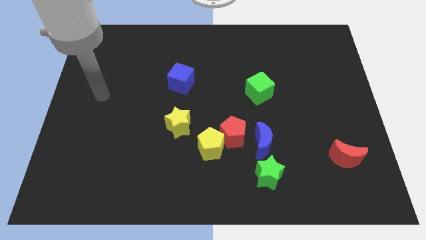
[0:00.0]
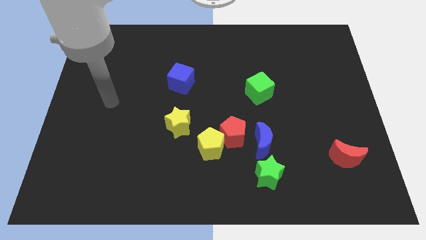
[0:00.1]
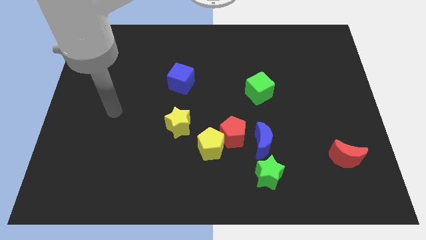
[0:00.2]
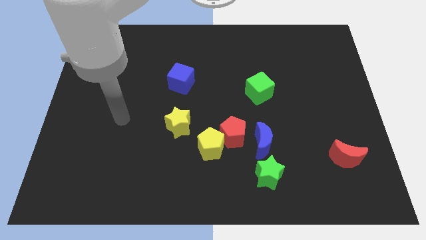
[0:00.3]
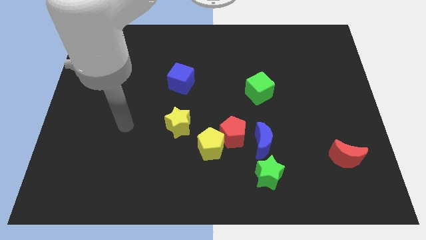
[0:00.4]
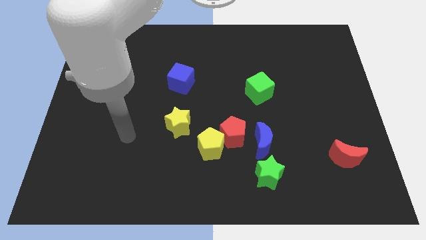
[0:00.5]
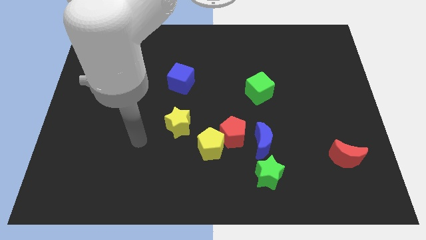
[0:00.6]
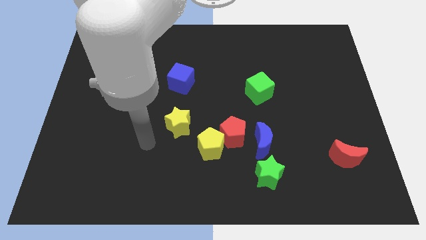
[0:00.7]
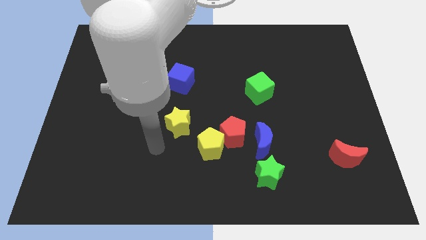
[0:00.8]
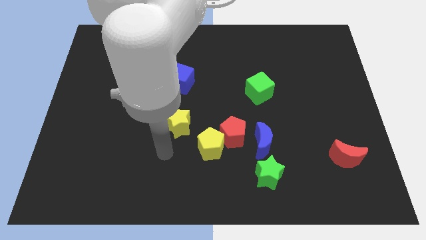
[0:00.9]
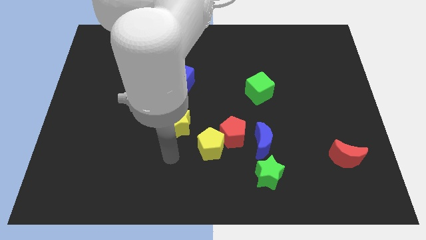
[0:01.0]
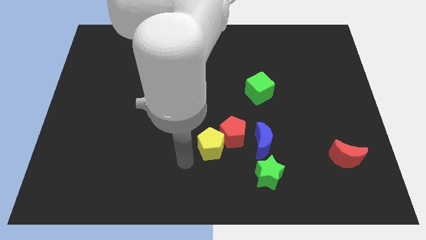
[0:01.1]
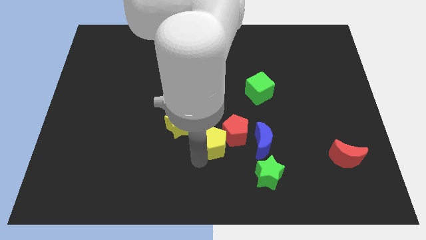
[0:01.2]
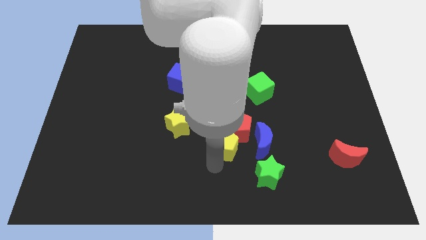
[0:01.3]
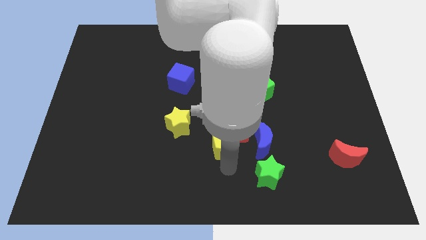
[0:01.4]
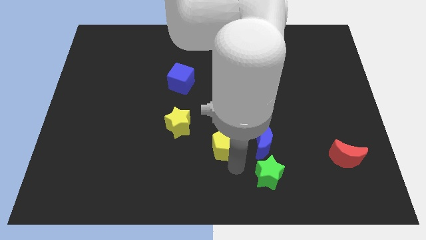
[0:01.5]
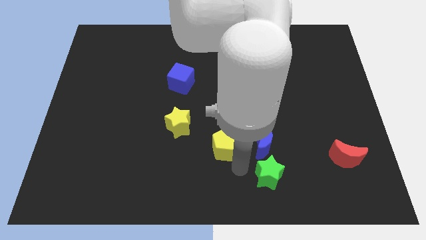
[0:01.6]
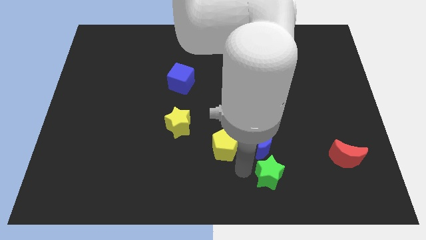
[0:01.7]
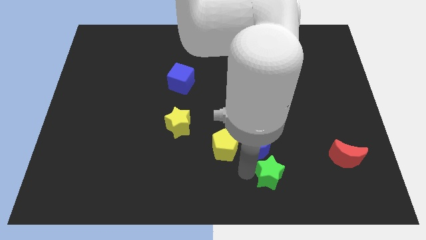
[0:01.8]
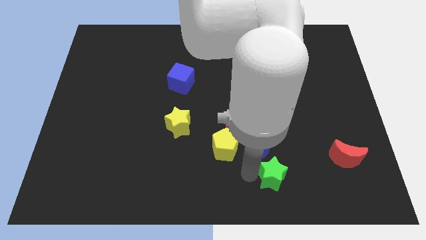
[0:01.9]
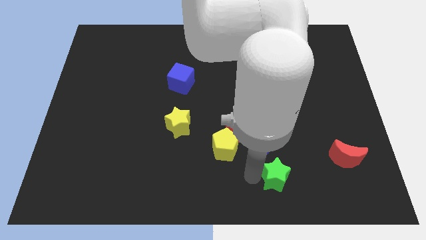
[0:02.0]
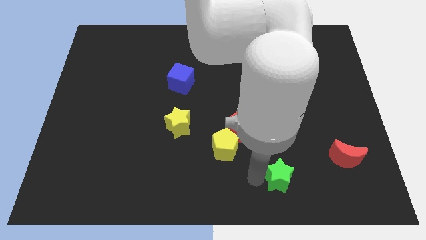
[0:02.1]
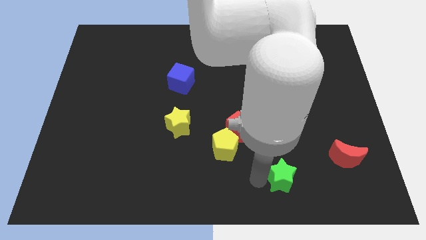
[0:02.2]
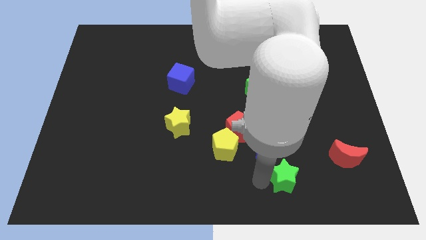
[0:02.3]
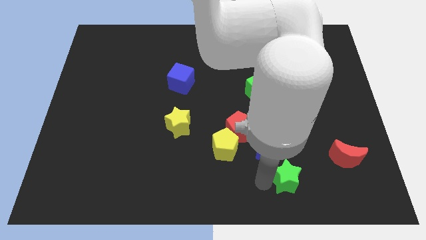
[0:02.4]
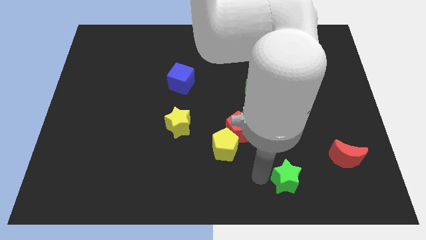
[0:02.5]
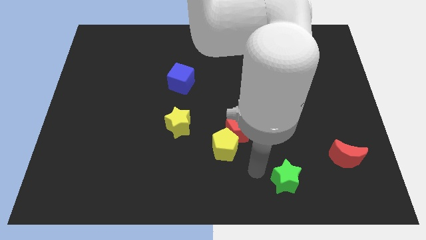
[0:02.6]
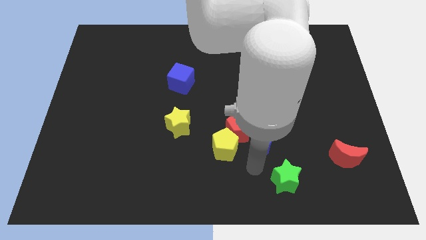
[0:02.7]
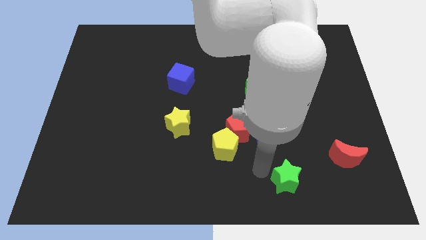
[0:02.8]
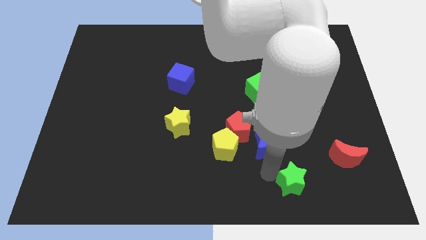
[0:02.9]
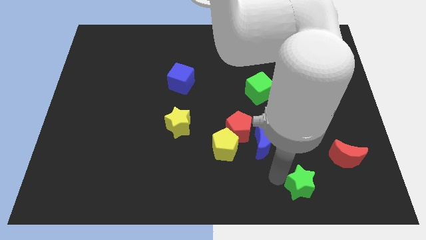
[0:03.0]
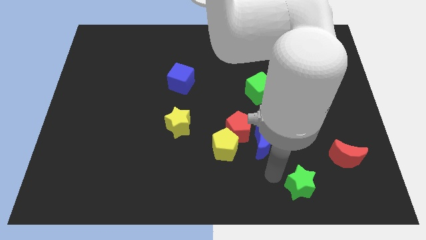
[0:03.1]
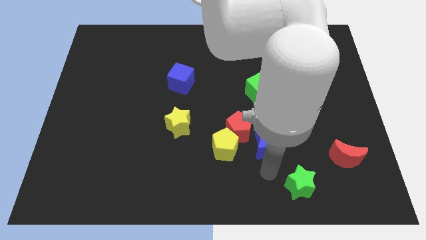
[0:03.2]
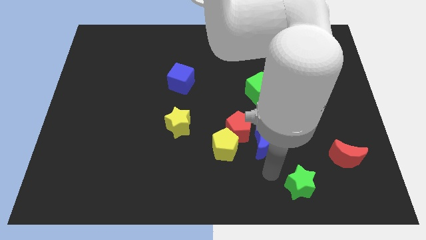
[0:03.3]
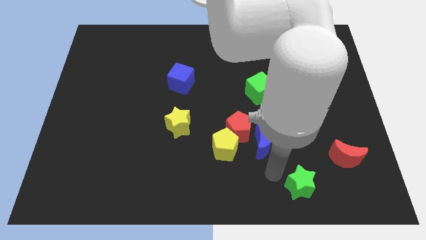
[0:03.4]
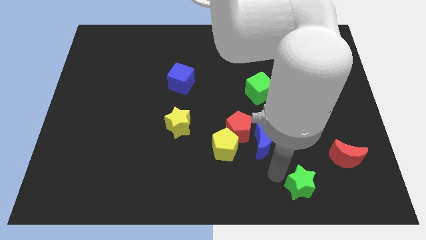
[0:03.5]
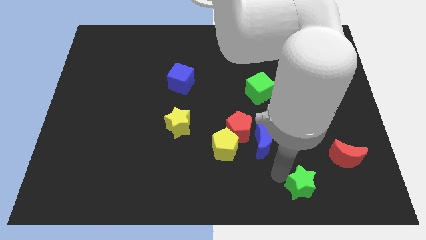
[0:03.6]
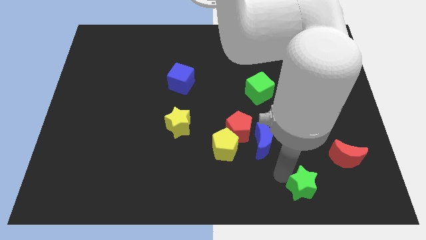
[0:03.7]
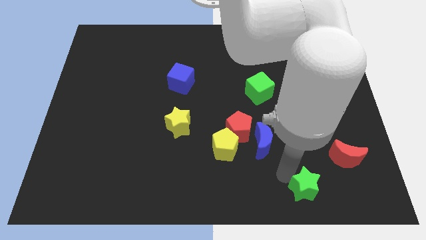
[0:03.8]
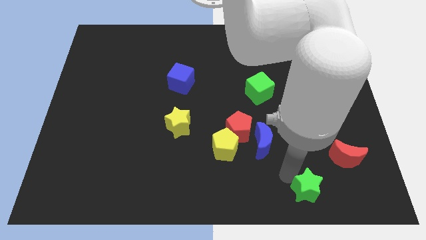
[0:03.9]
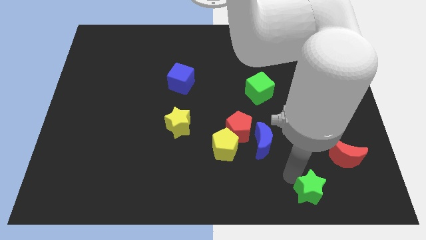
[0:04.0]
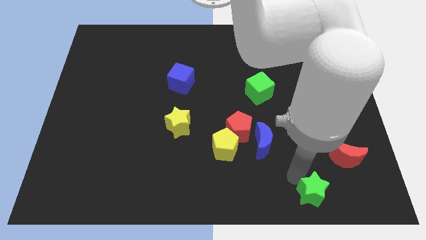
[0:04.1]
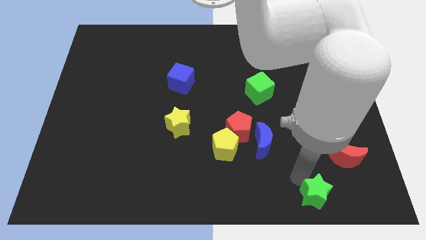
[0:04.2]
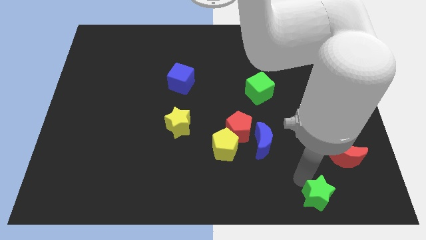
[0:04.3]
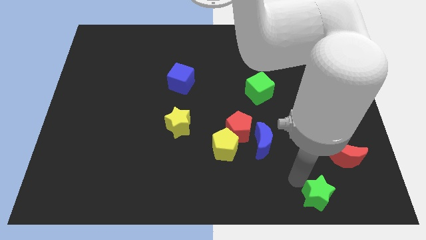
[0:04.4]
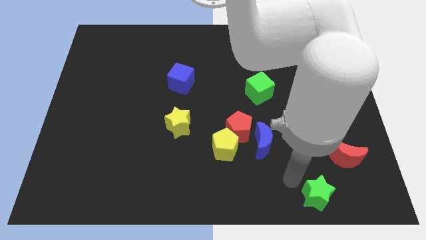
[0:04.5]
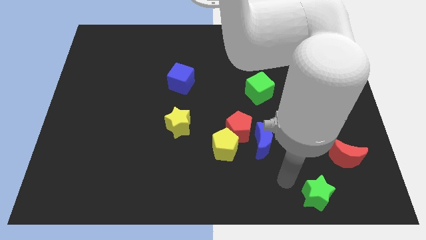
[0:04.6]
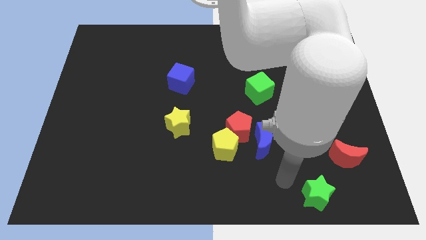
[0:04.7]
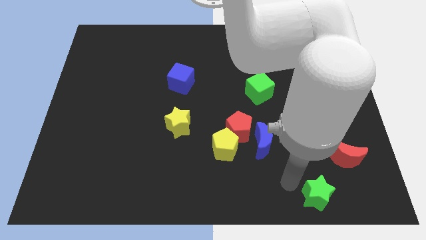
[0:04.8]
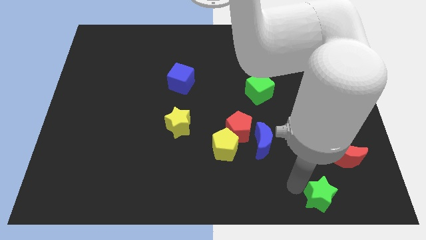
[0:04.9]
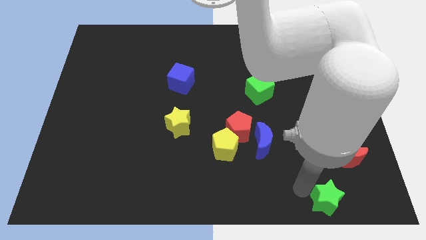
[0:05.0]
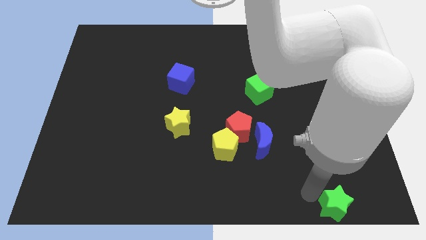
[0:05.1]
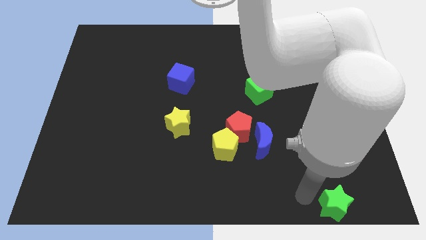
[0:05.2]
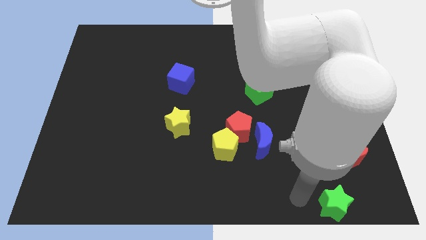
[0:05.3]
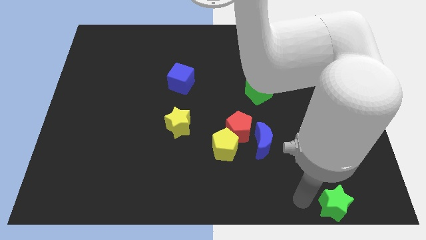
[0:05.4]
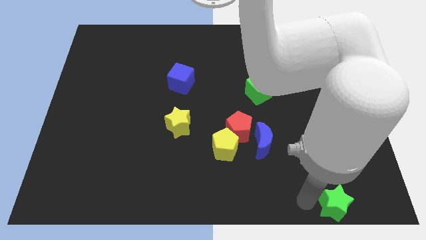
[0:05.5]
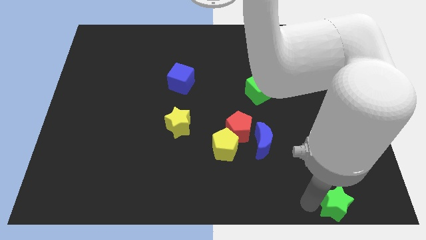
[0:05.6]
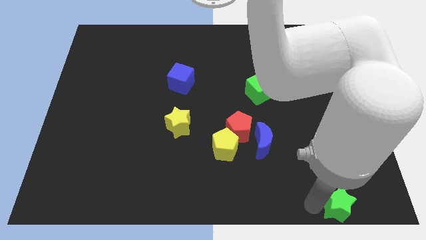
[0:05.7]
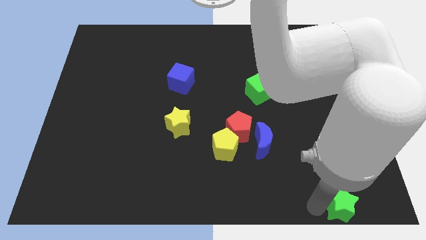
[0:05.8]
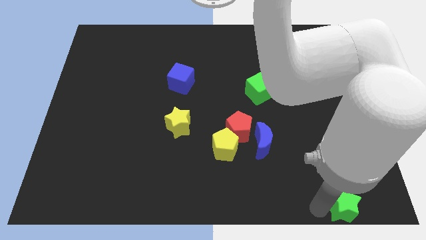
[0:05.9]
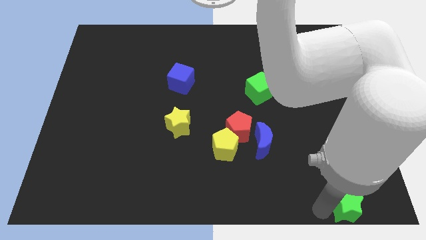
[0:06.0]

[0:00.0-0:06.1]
push the green star to the bottom right
